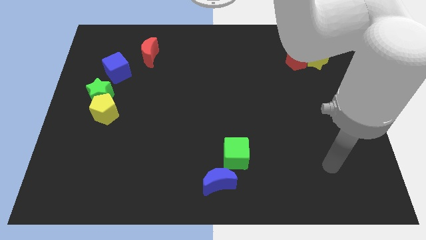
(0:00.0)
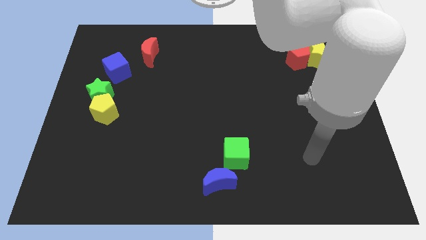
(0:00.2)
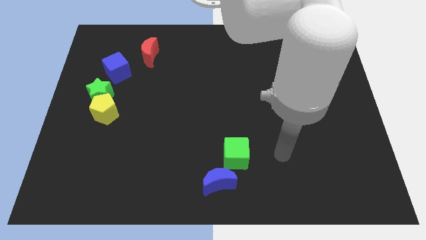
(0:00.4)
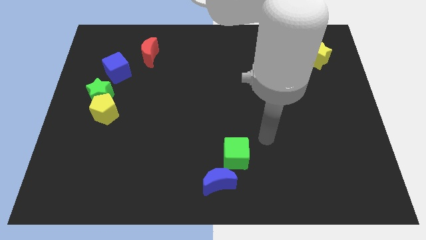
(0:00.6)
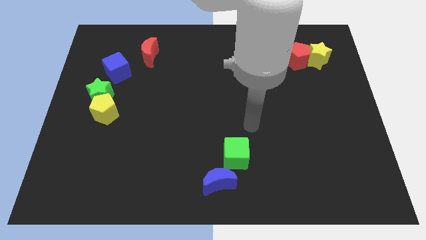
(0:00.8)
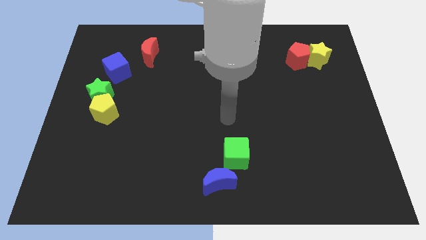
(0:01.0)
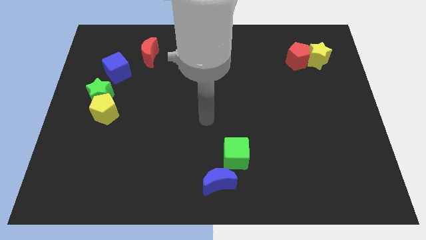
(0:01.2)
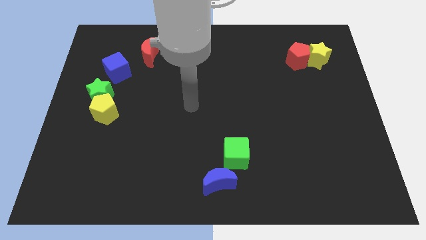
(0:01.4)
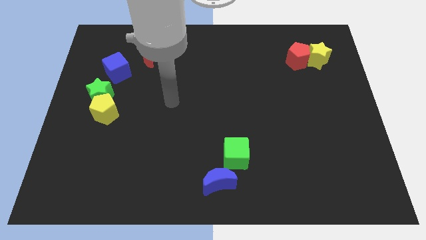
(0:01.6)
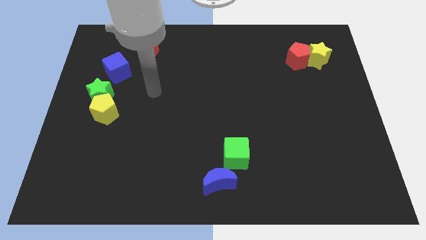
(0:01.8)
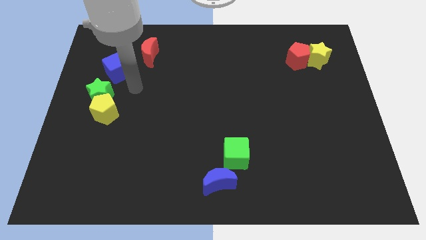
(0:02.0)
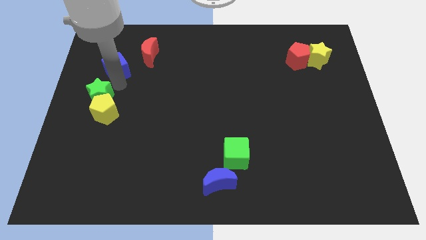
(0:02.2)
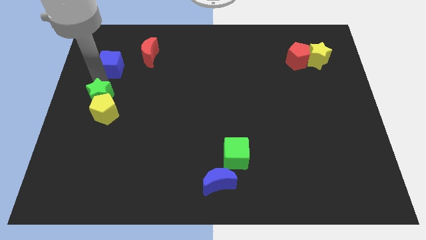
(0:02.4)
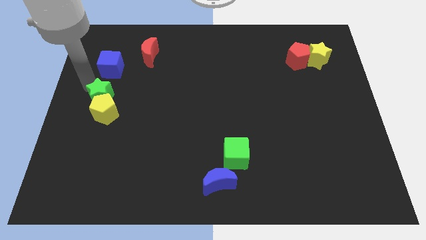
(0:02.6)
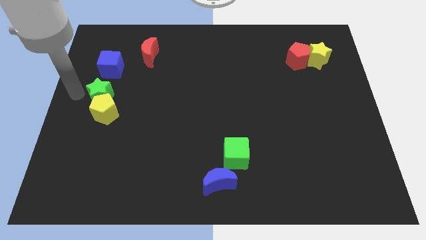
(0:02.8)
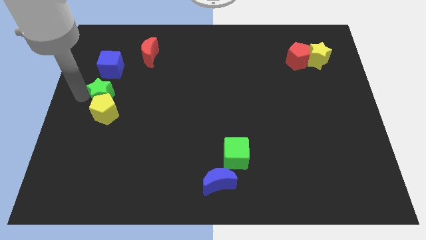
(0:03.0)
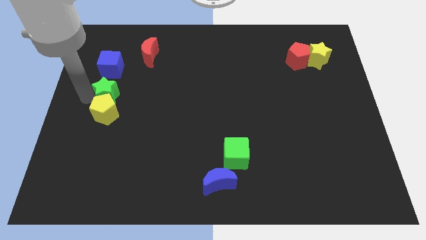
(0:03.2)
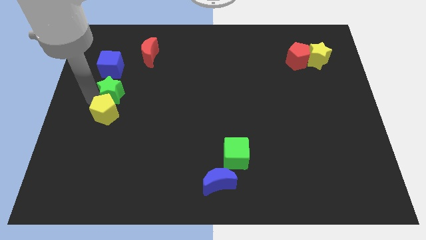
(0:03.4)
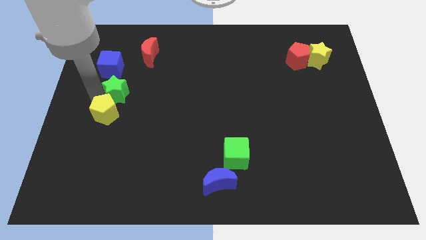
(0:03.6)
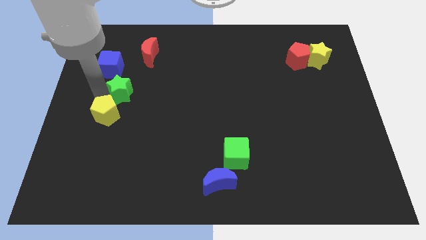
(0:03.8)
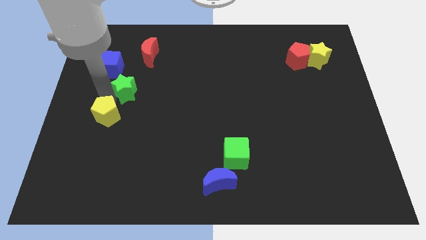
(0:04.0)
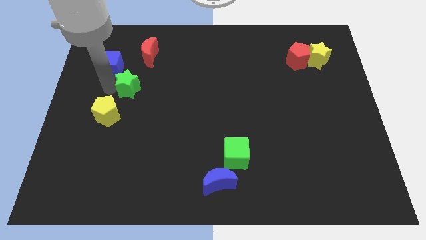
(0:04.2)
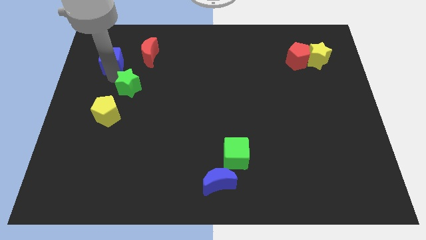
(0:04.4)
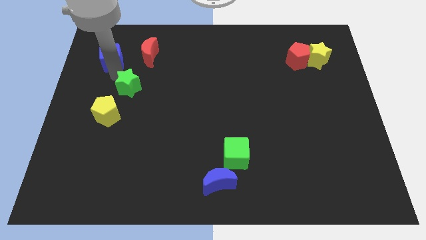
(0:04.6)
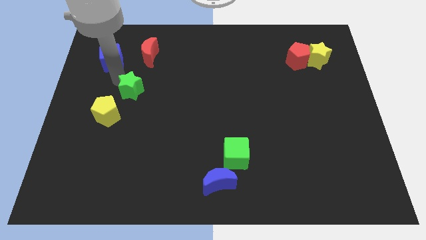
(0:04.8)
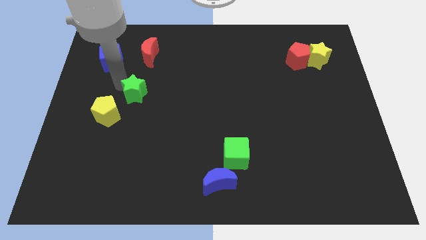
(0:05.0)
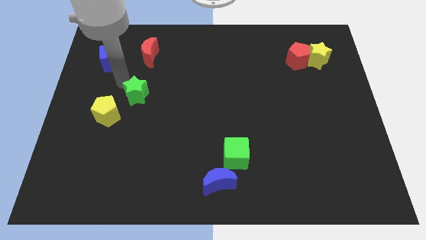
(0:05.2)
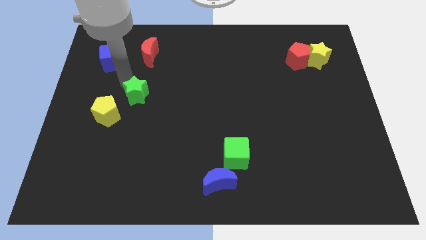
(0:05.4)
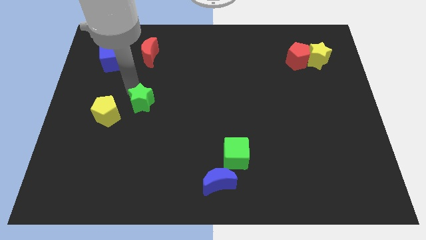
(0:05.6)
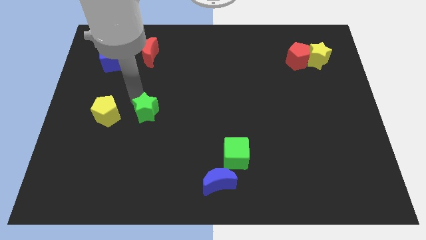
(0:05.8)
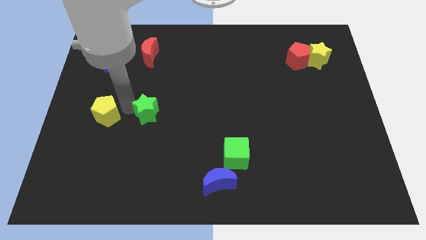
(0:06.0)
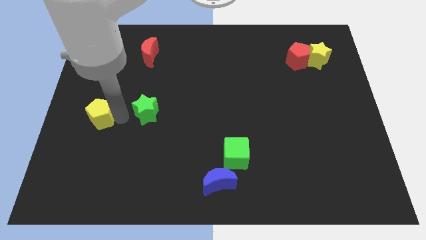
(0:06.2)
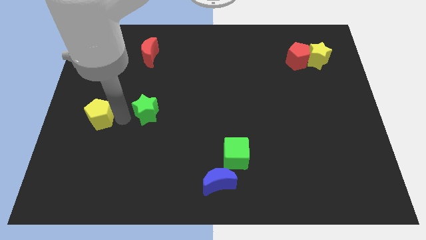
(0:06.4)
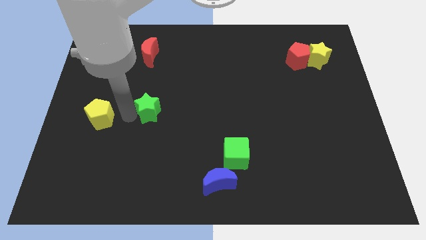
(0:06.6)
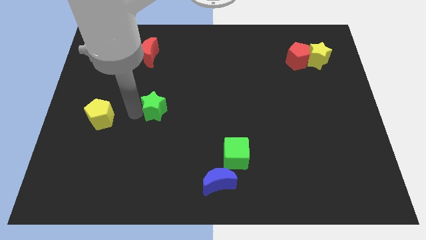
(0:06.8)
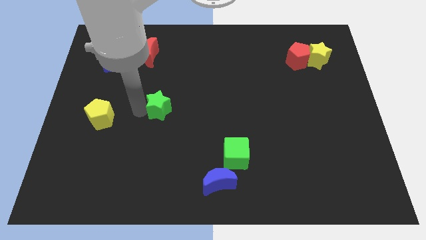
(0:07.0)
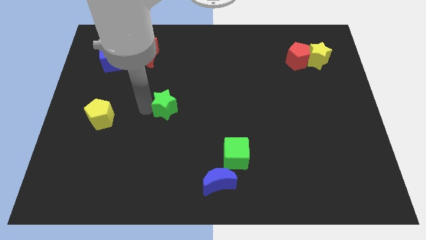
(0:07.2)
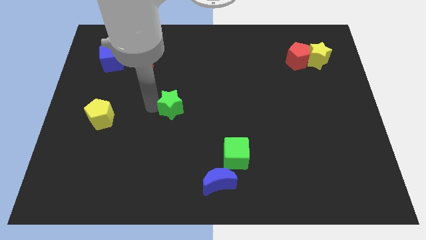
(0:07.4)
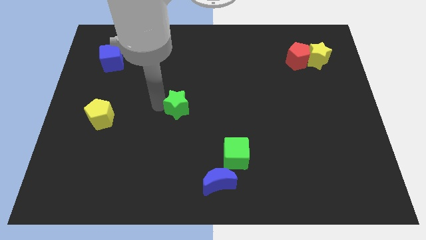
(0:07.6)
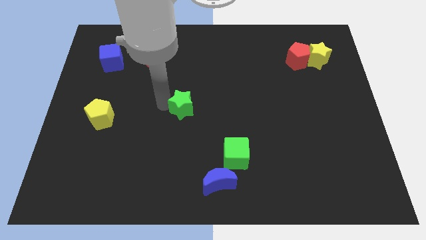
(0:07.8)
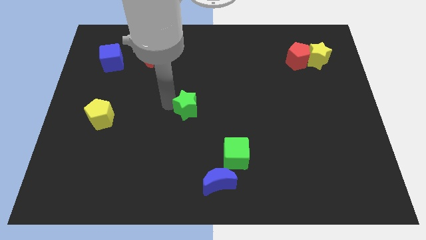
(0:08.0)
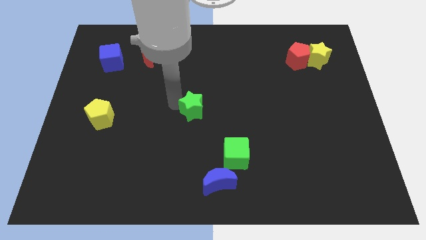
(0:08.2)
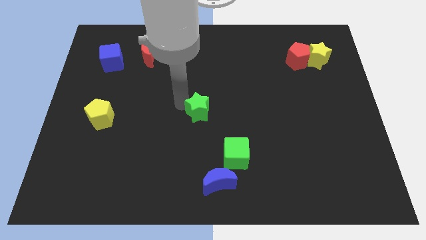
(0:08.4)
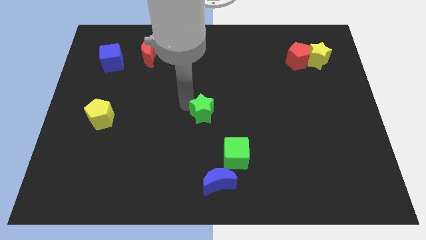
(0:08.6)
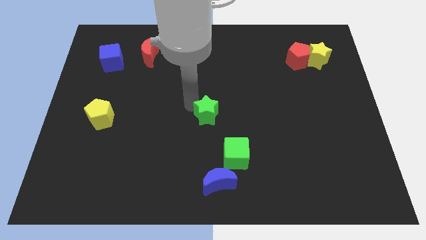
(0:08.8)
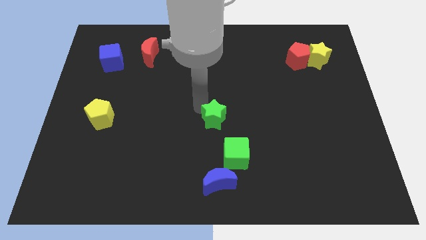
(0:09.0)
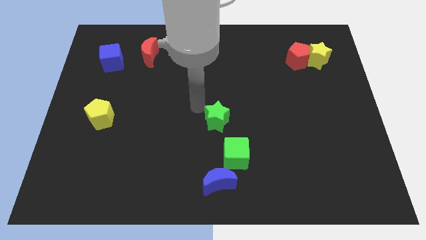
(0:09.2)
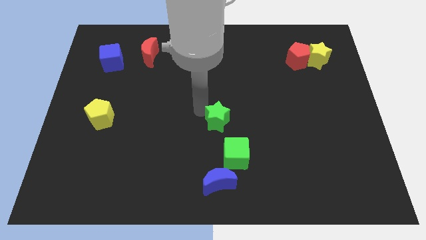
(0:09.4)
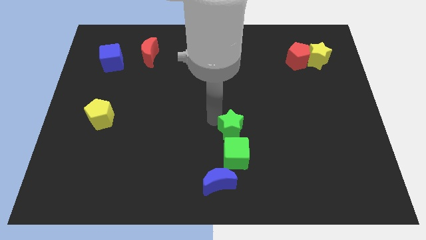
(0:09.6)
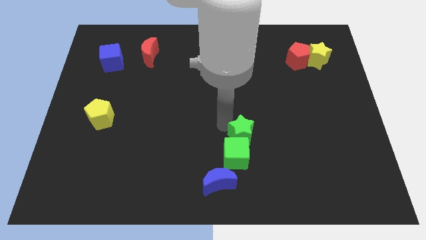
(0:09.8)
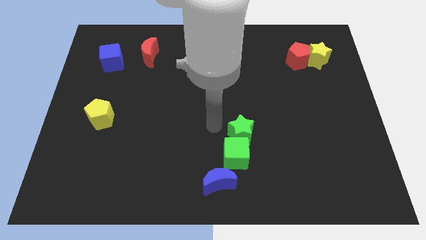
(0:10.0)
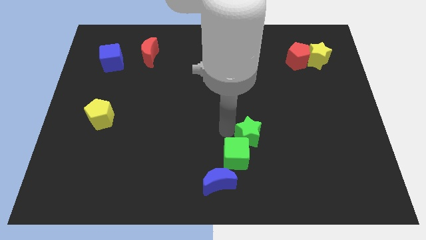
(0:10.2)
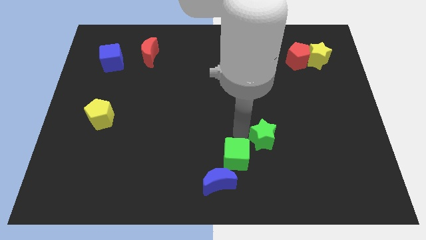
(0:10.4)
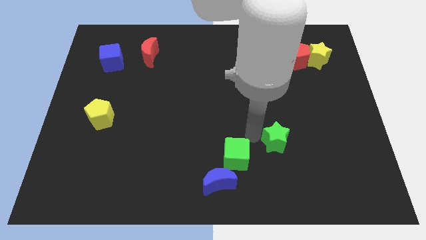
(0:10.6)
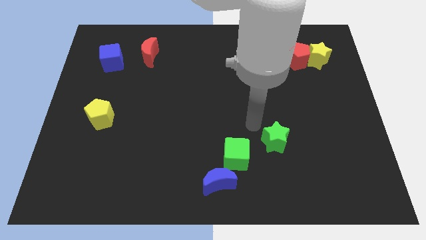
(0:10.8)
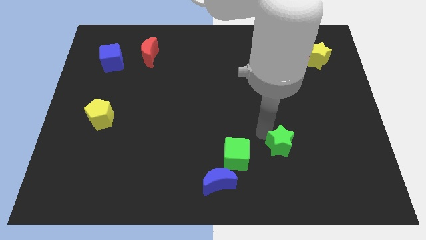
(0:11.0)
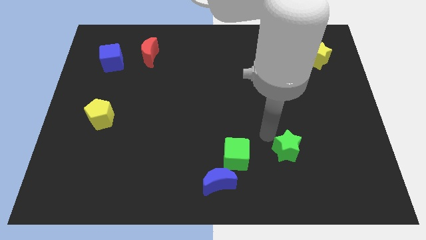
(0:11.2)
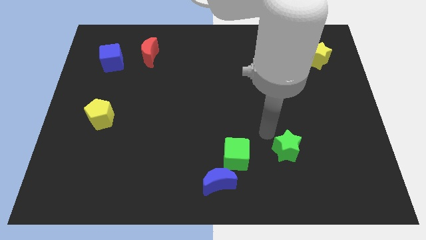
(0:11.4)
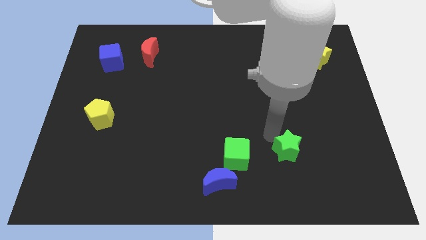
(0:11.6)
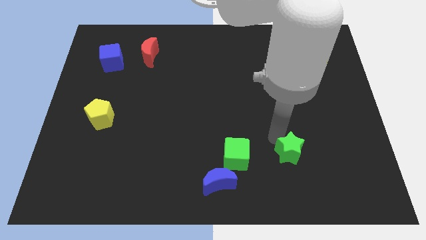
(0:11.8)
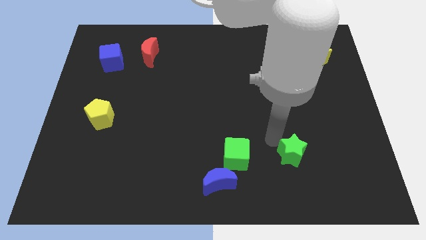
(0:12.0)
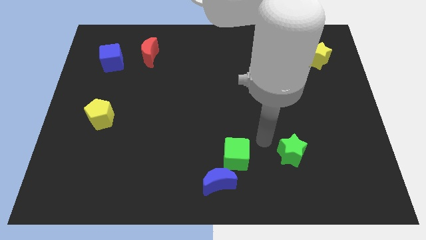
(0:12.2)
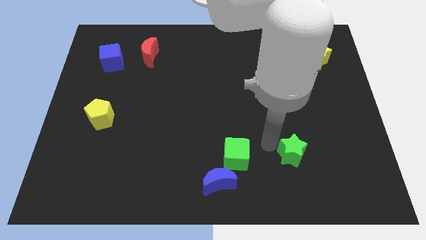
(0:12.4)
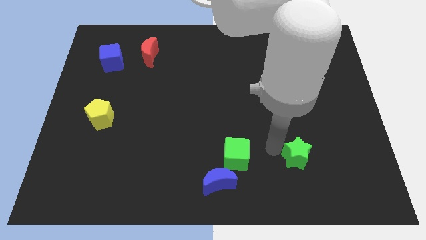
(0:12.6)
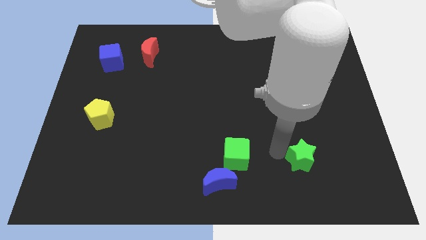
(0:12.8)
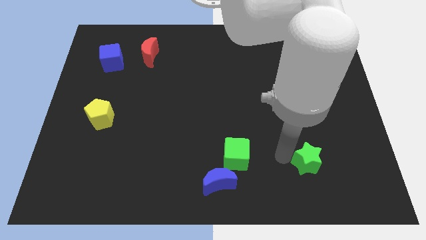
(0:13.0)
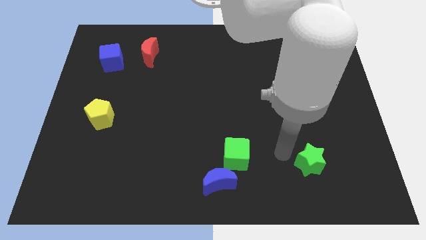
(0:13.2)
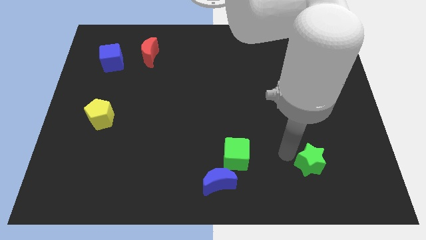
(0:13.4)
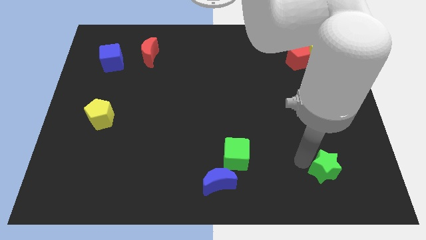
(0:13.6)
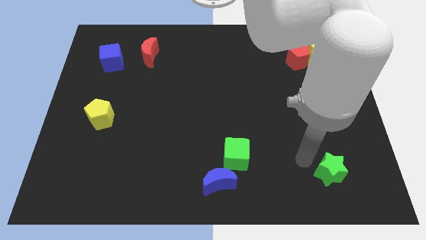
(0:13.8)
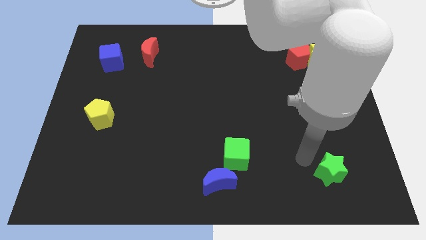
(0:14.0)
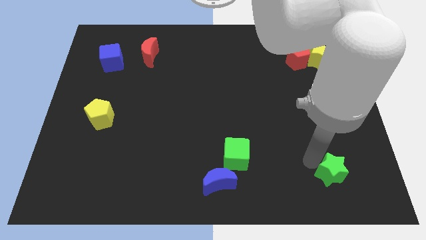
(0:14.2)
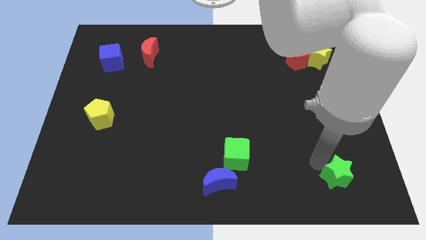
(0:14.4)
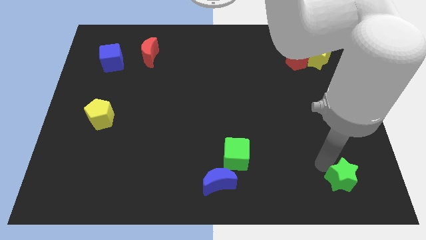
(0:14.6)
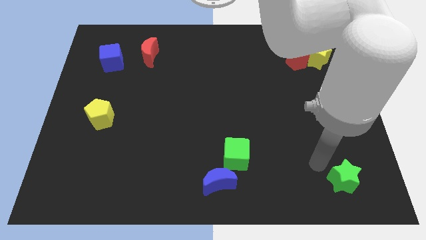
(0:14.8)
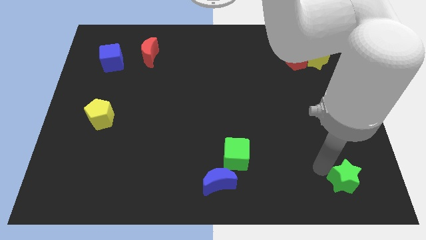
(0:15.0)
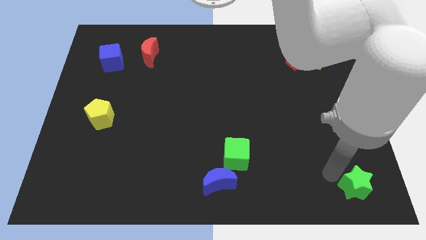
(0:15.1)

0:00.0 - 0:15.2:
move the green star to the bottom right
